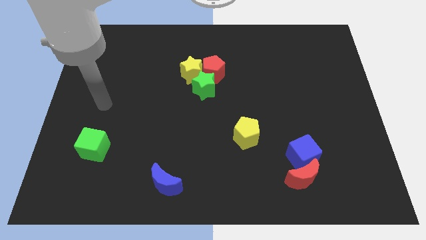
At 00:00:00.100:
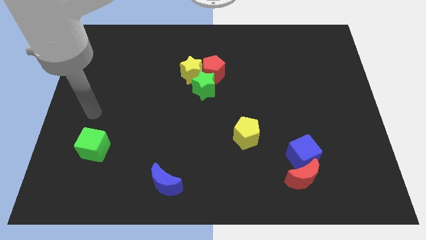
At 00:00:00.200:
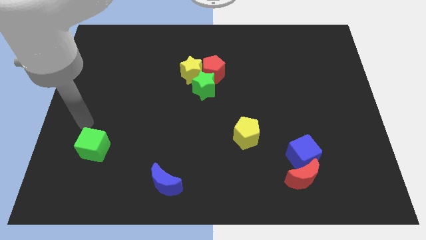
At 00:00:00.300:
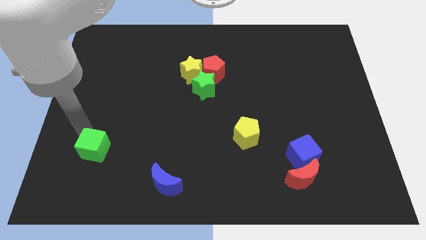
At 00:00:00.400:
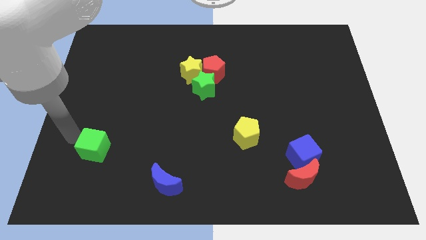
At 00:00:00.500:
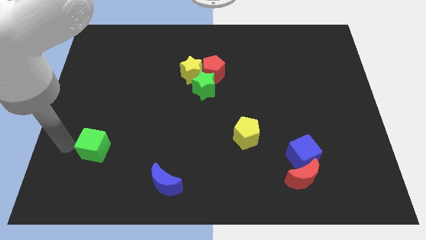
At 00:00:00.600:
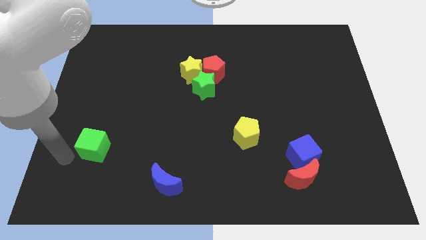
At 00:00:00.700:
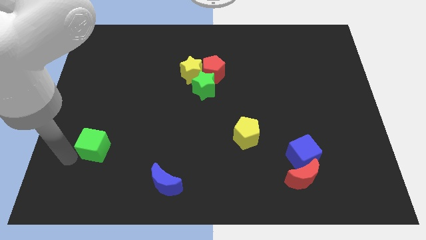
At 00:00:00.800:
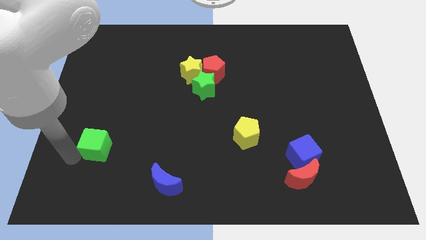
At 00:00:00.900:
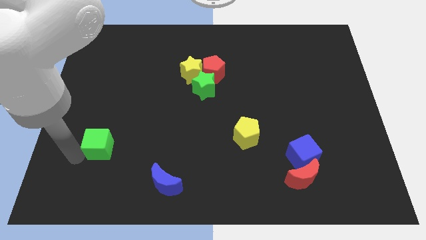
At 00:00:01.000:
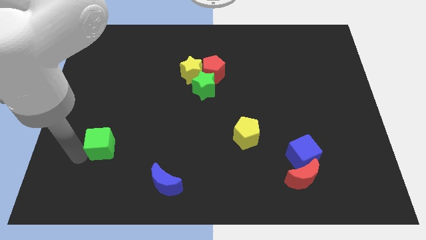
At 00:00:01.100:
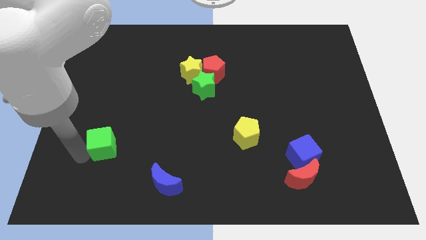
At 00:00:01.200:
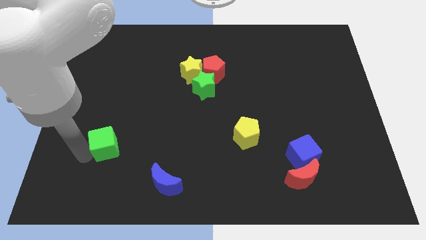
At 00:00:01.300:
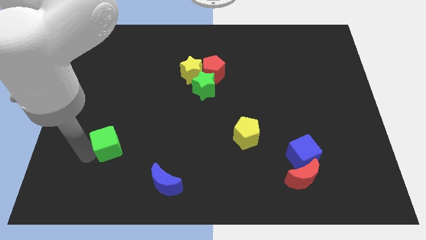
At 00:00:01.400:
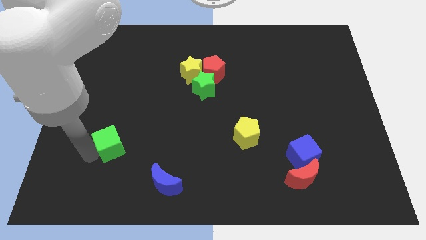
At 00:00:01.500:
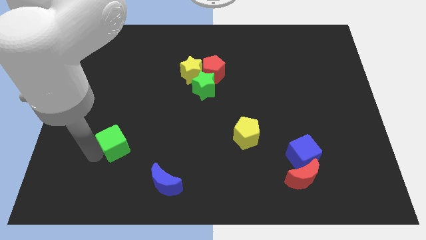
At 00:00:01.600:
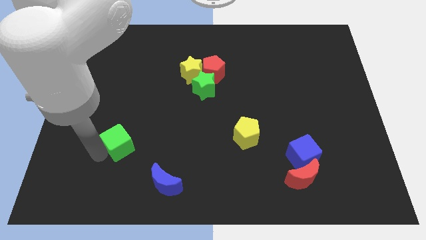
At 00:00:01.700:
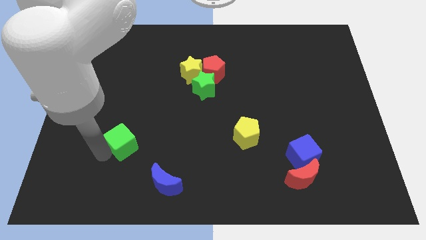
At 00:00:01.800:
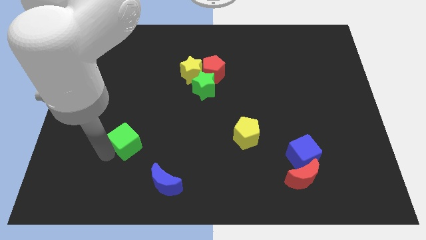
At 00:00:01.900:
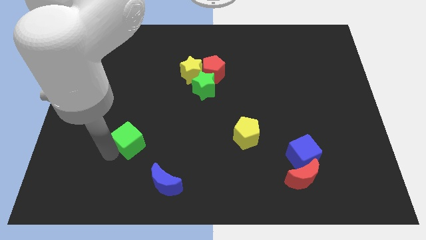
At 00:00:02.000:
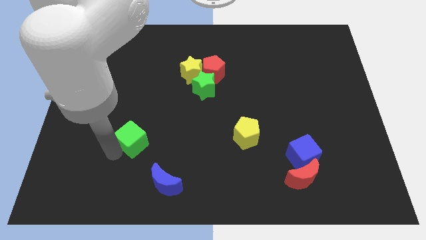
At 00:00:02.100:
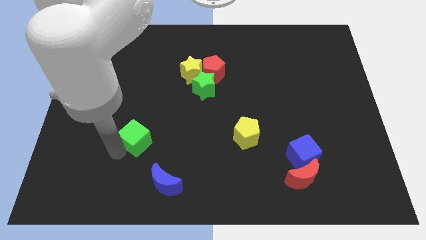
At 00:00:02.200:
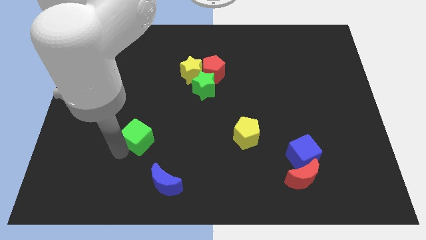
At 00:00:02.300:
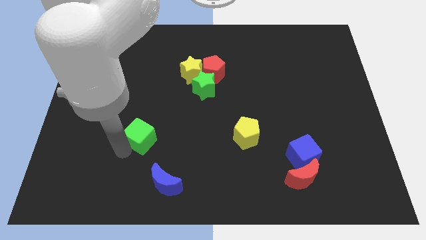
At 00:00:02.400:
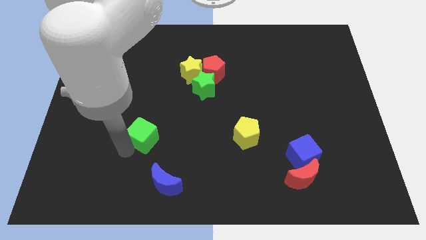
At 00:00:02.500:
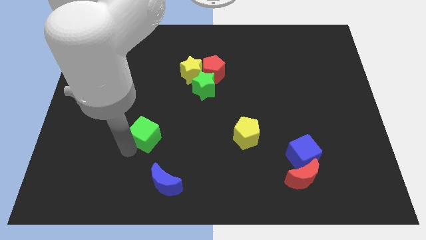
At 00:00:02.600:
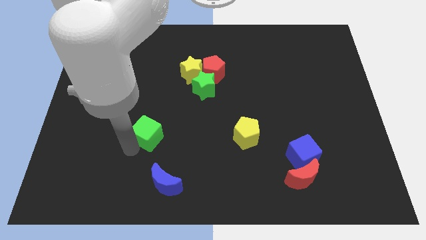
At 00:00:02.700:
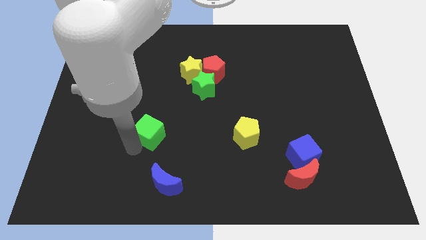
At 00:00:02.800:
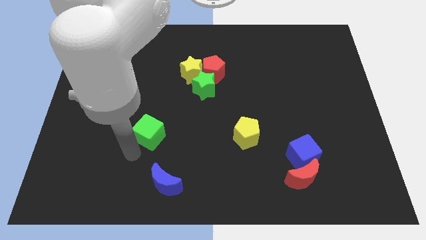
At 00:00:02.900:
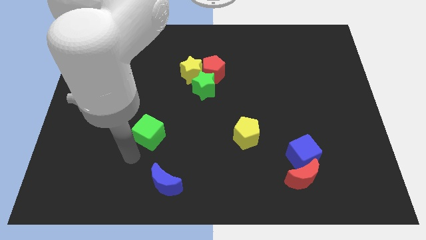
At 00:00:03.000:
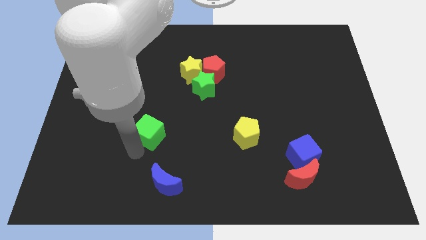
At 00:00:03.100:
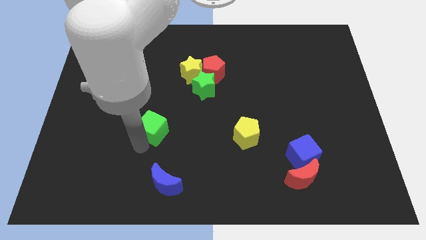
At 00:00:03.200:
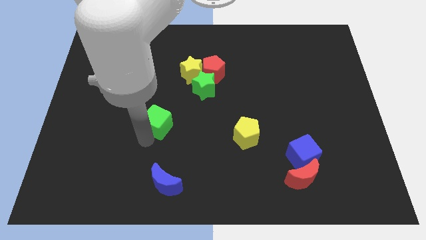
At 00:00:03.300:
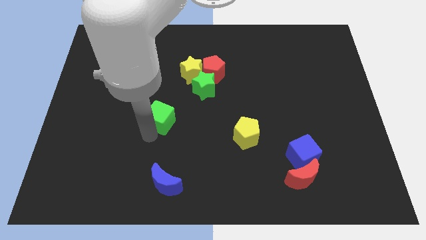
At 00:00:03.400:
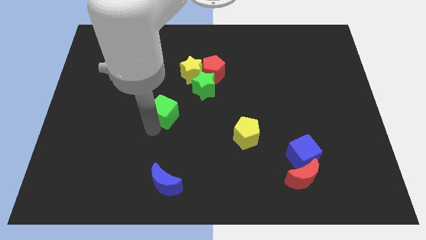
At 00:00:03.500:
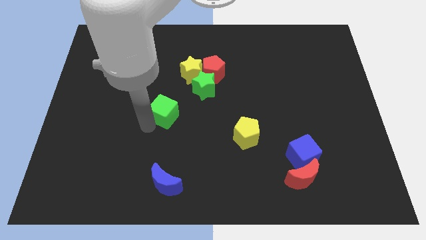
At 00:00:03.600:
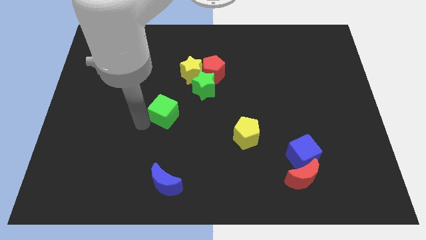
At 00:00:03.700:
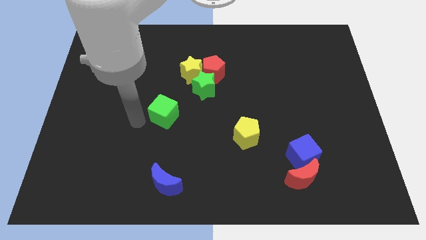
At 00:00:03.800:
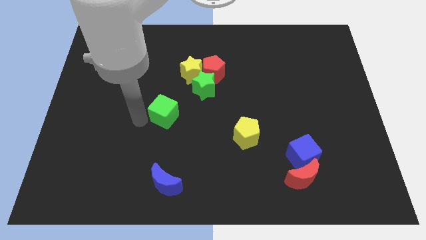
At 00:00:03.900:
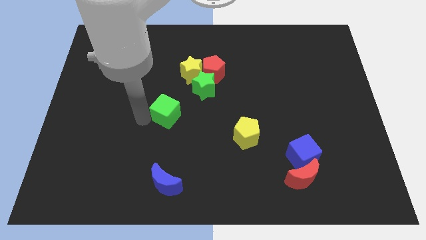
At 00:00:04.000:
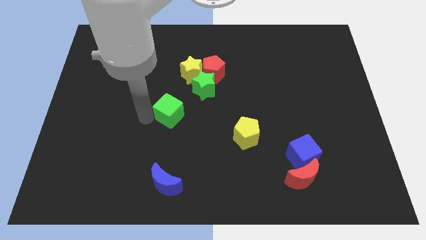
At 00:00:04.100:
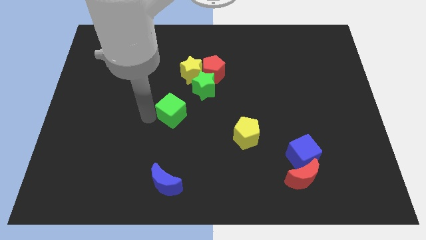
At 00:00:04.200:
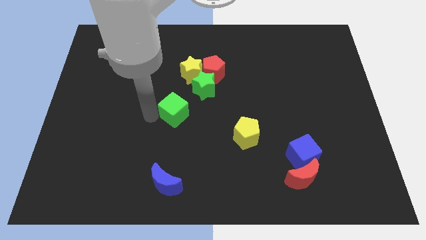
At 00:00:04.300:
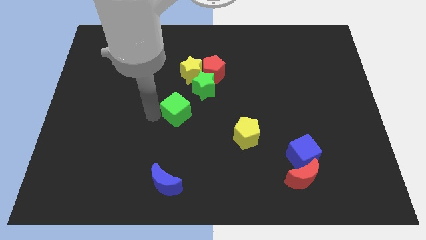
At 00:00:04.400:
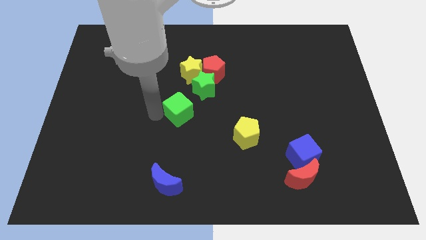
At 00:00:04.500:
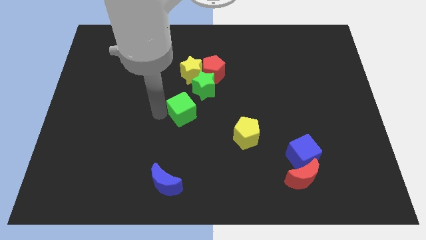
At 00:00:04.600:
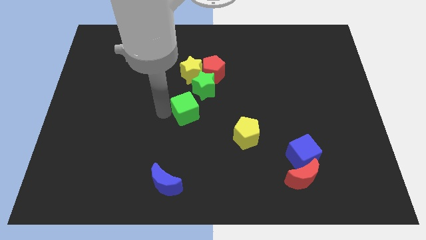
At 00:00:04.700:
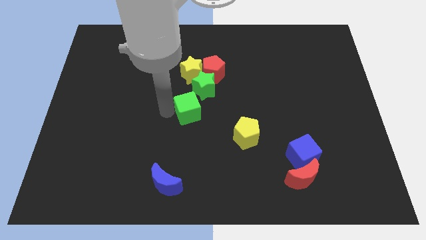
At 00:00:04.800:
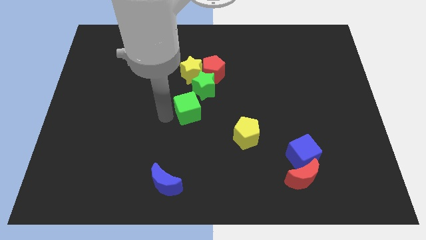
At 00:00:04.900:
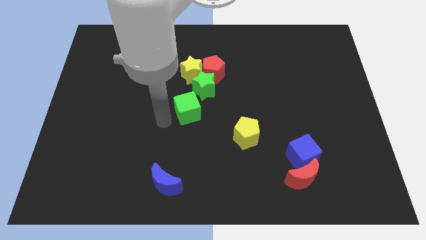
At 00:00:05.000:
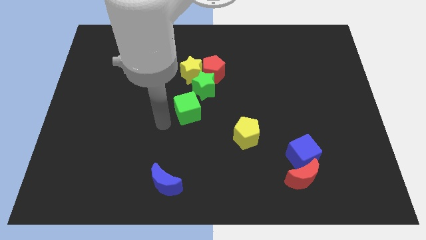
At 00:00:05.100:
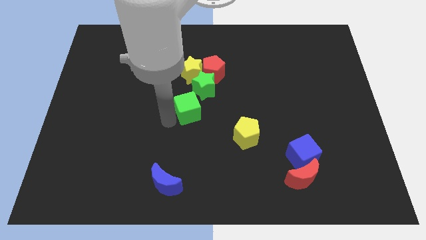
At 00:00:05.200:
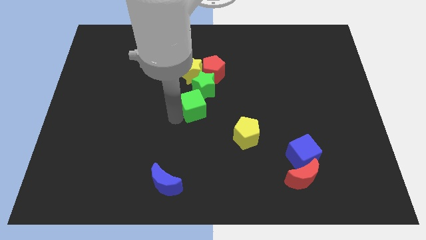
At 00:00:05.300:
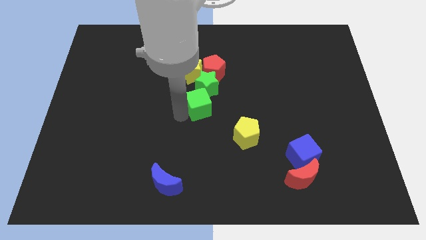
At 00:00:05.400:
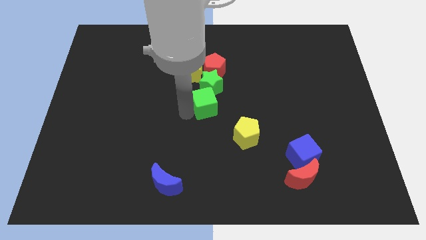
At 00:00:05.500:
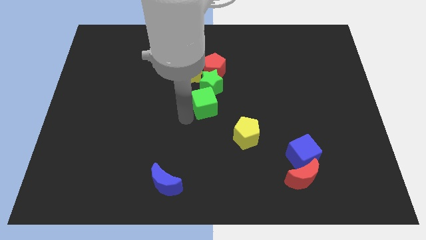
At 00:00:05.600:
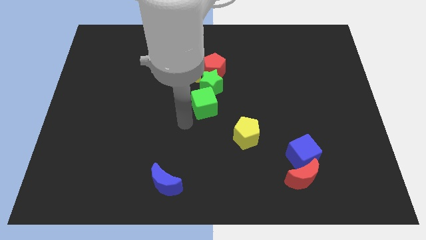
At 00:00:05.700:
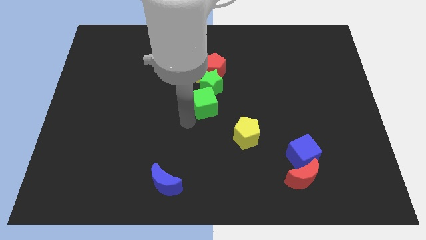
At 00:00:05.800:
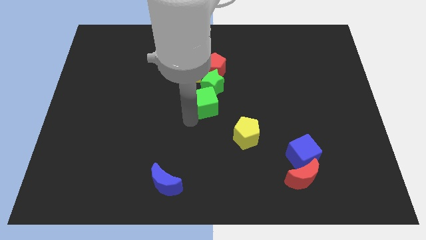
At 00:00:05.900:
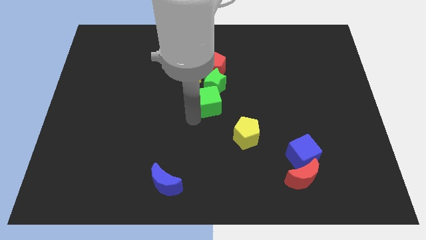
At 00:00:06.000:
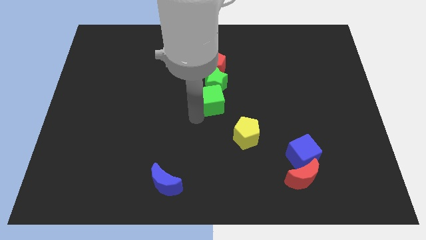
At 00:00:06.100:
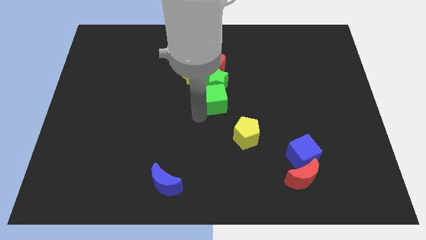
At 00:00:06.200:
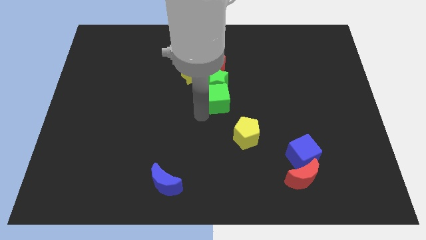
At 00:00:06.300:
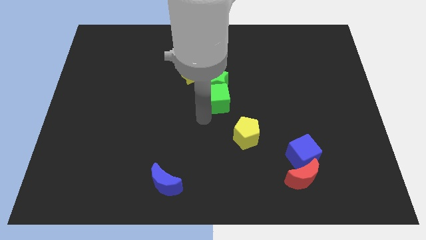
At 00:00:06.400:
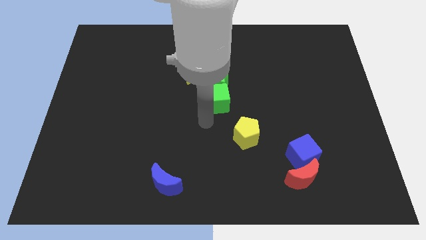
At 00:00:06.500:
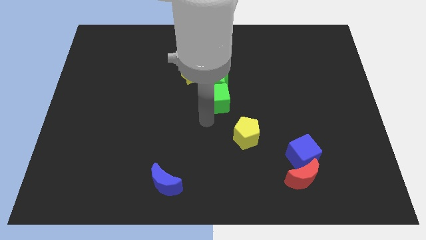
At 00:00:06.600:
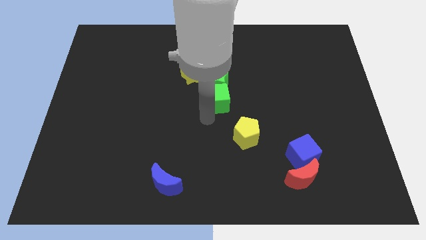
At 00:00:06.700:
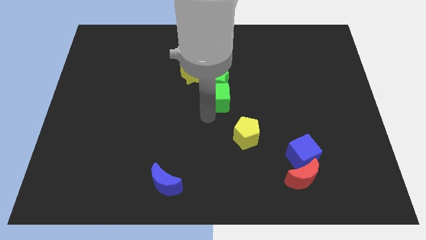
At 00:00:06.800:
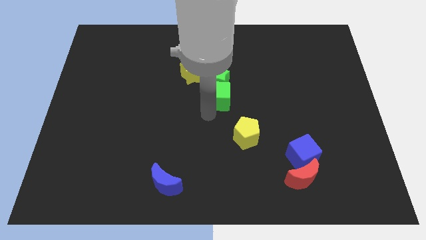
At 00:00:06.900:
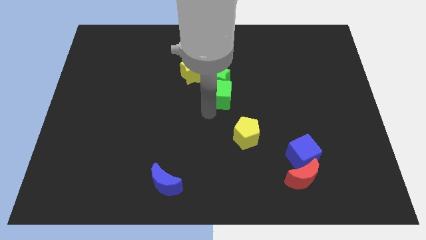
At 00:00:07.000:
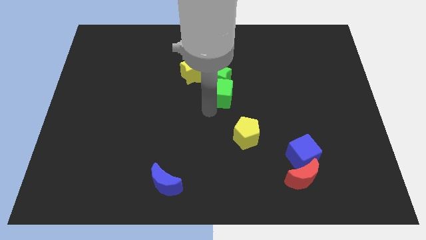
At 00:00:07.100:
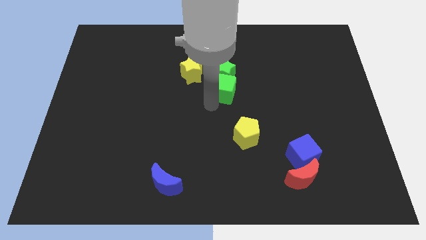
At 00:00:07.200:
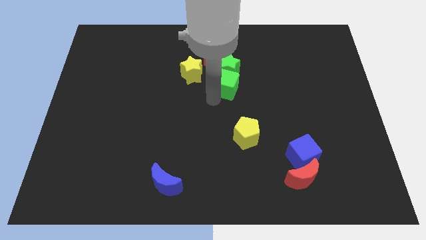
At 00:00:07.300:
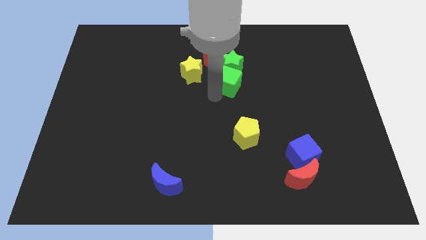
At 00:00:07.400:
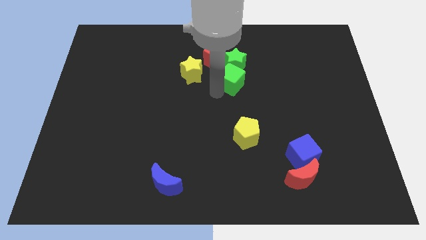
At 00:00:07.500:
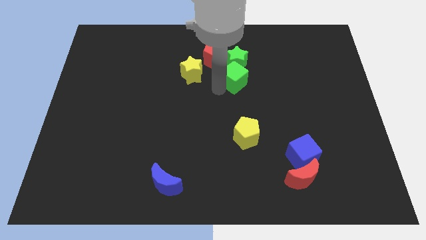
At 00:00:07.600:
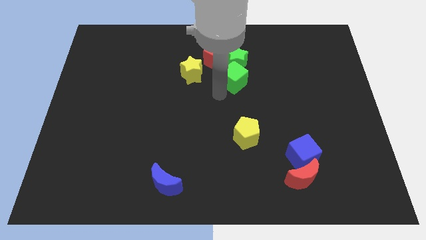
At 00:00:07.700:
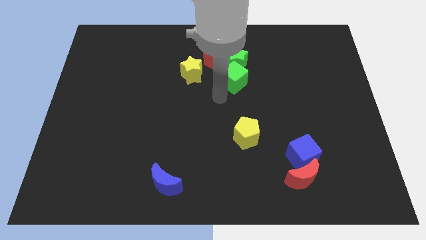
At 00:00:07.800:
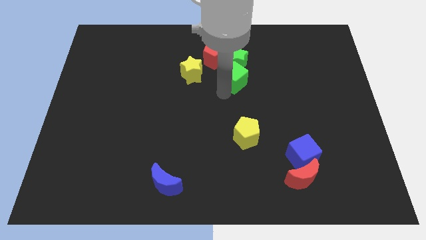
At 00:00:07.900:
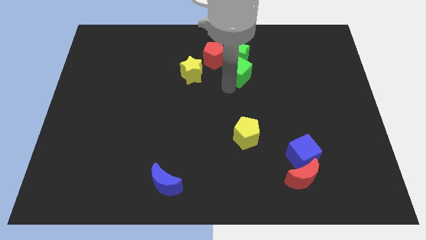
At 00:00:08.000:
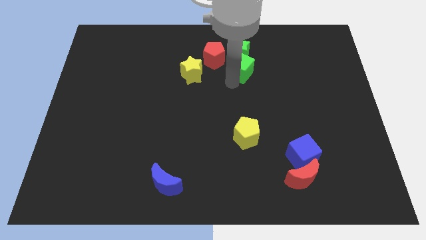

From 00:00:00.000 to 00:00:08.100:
move the green cube to the right side of the red pentagon
